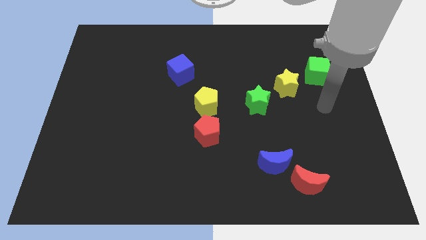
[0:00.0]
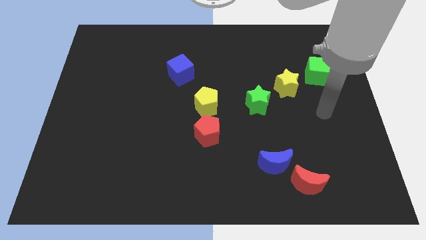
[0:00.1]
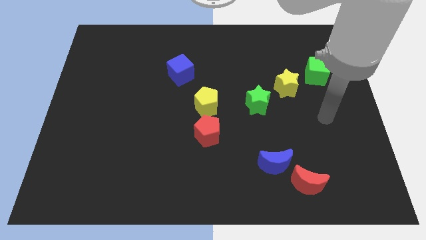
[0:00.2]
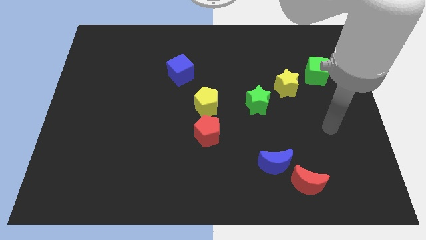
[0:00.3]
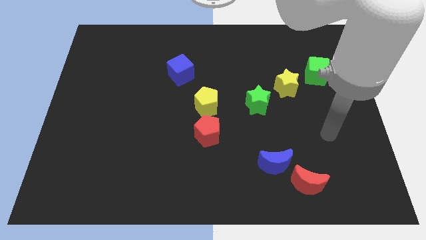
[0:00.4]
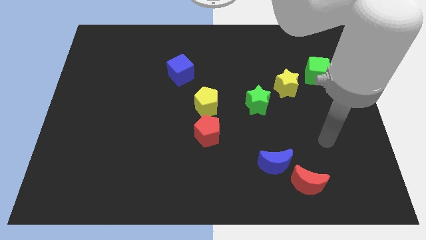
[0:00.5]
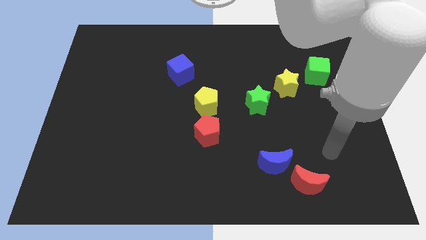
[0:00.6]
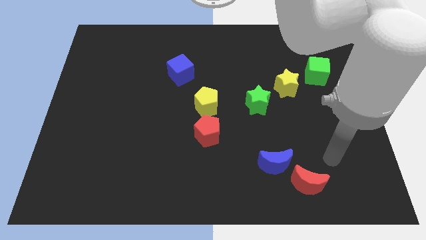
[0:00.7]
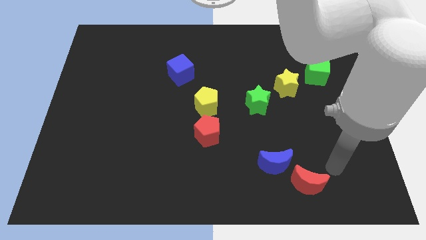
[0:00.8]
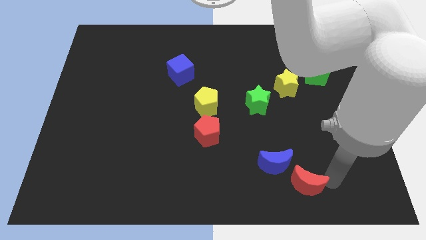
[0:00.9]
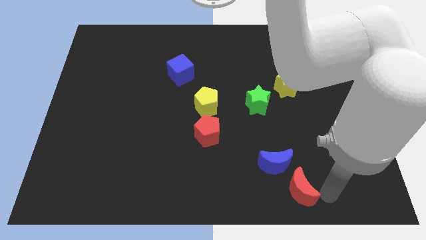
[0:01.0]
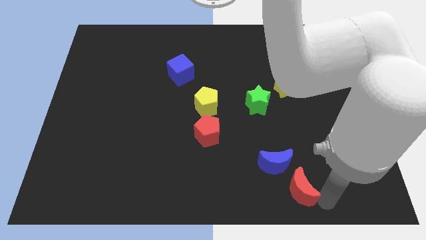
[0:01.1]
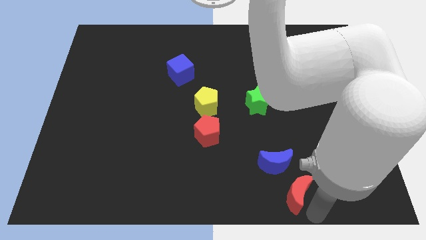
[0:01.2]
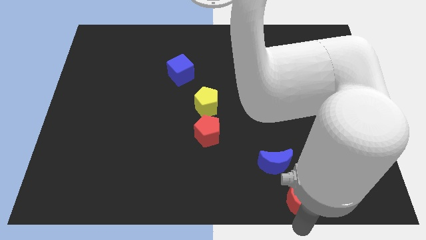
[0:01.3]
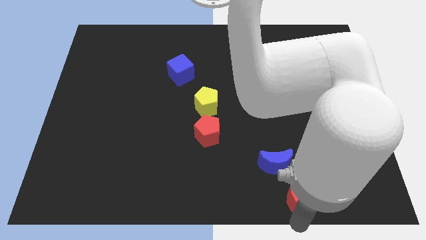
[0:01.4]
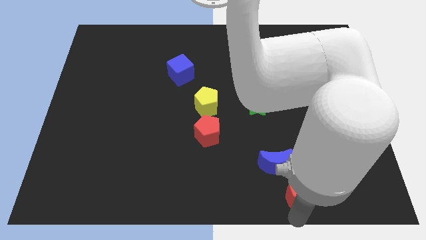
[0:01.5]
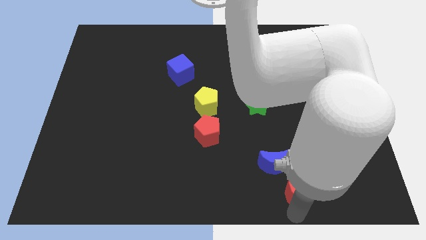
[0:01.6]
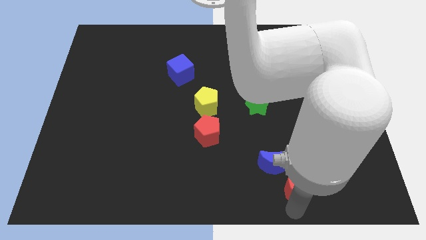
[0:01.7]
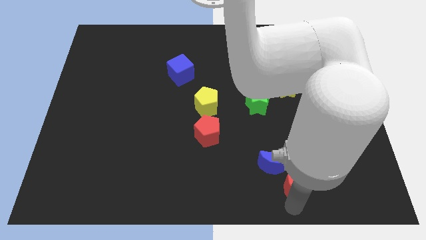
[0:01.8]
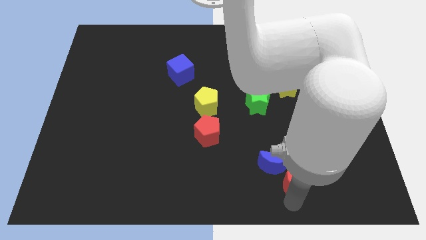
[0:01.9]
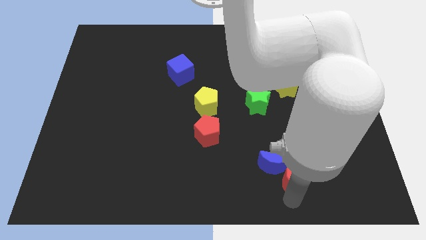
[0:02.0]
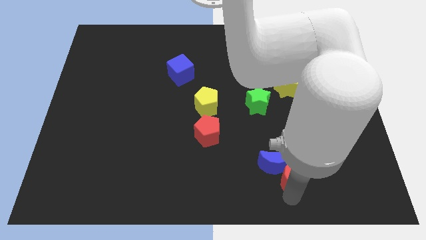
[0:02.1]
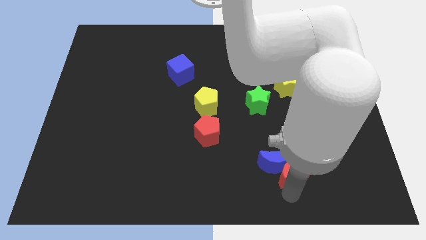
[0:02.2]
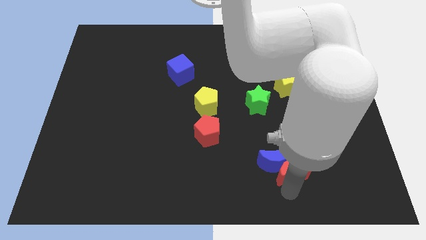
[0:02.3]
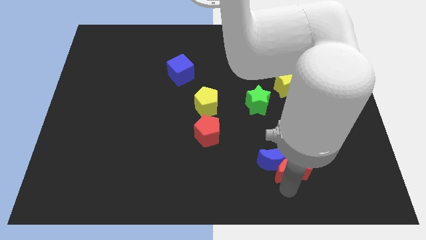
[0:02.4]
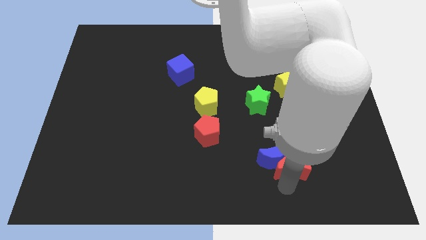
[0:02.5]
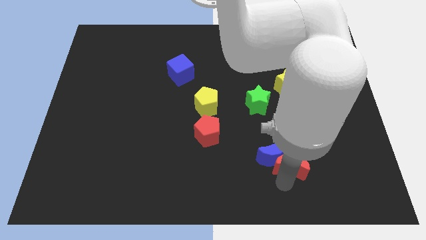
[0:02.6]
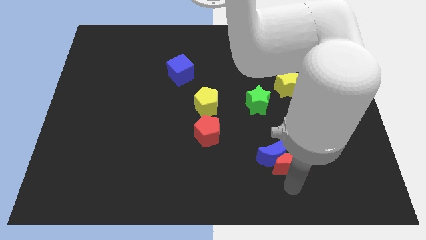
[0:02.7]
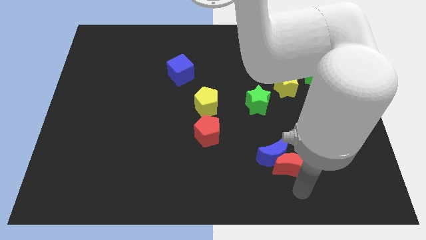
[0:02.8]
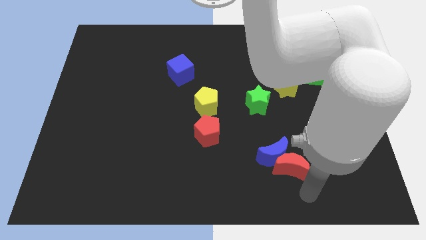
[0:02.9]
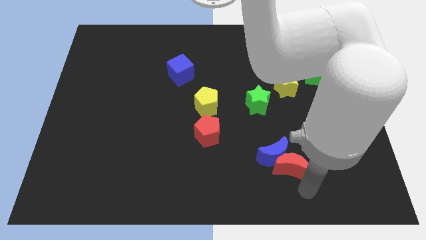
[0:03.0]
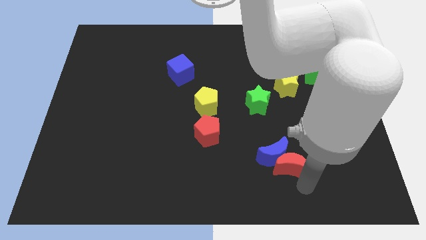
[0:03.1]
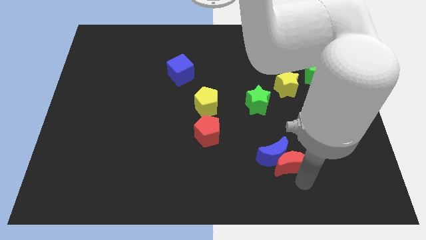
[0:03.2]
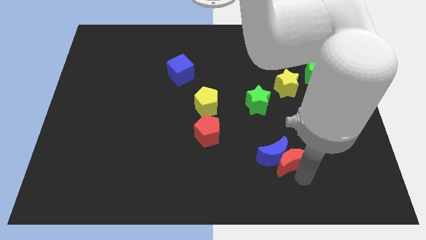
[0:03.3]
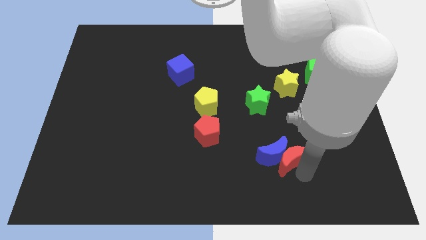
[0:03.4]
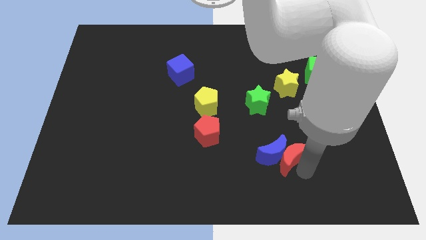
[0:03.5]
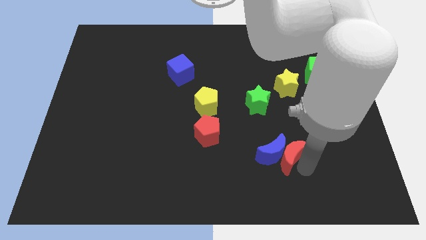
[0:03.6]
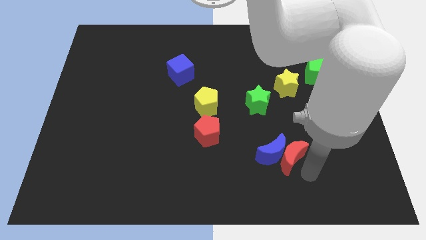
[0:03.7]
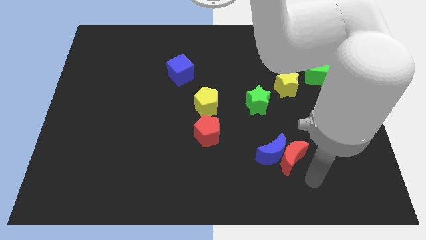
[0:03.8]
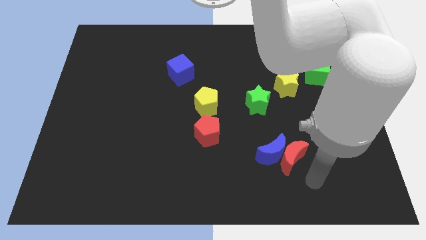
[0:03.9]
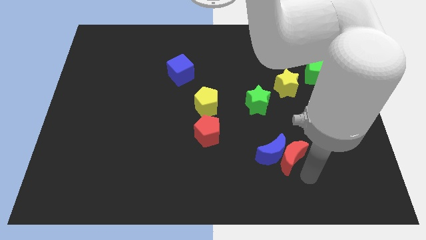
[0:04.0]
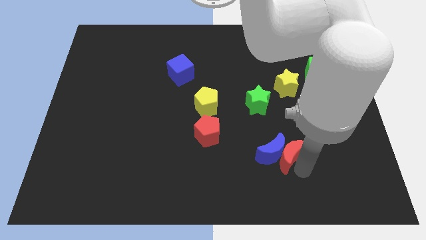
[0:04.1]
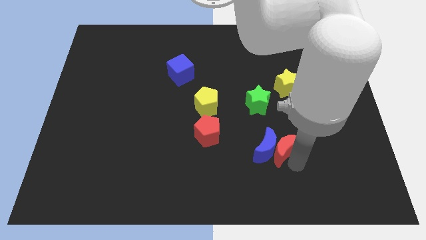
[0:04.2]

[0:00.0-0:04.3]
slightly push the red moon diagonally upwards and left

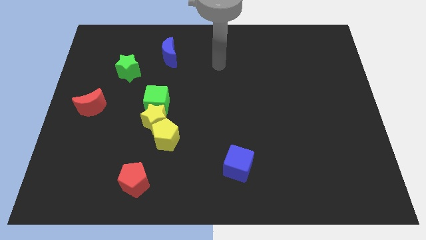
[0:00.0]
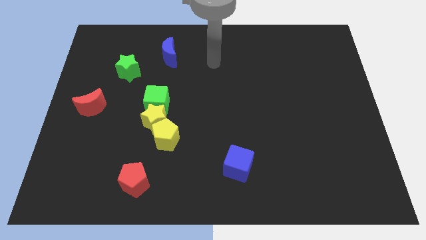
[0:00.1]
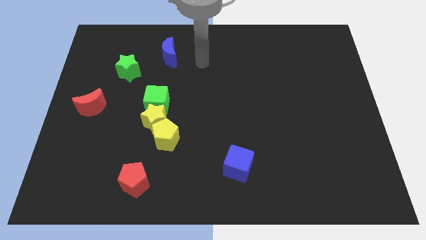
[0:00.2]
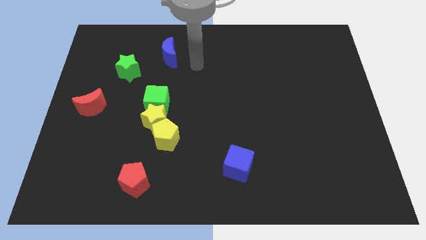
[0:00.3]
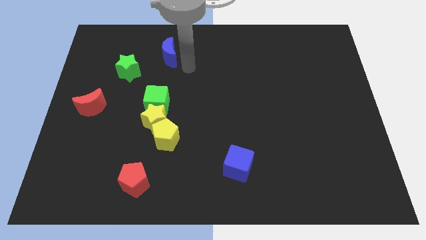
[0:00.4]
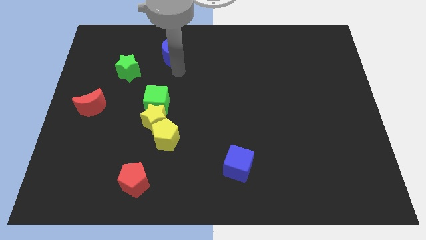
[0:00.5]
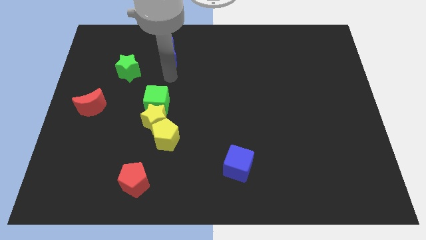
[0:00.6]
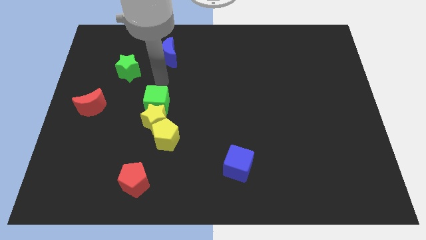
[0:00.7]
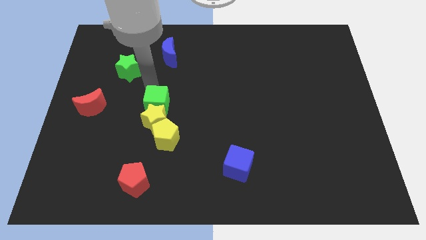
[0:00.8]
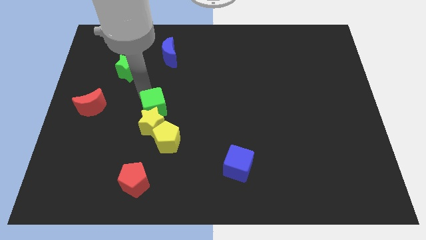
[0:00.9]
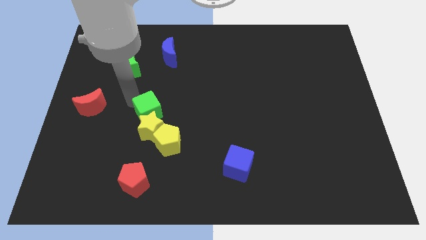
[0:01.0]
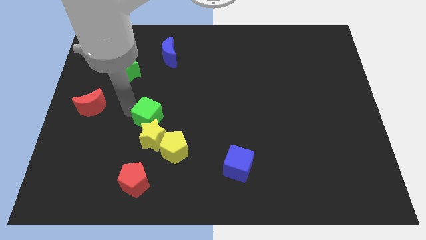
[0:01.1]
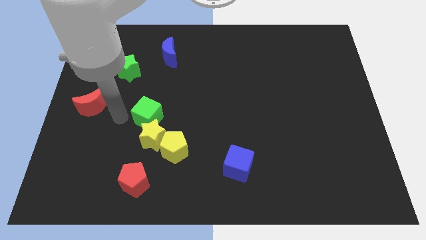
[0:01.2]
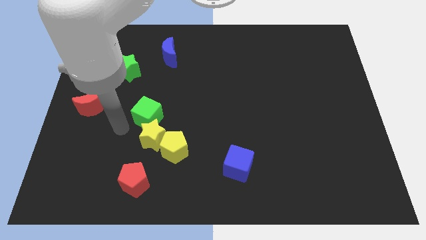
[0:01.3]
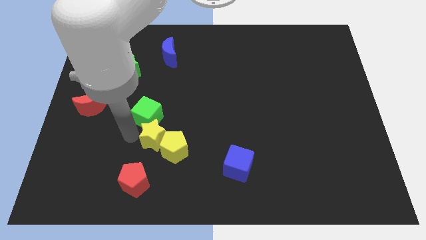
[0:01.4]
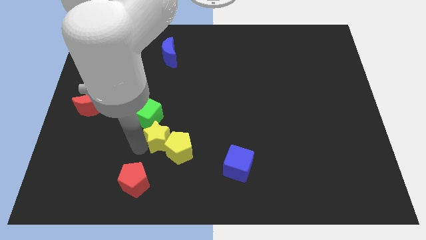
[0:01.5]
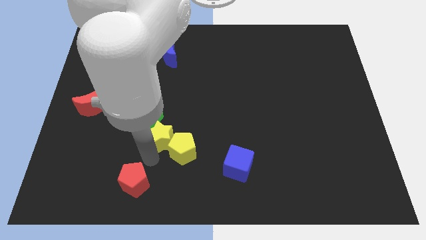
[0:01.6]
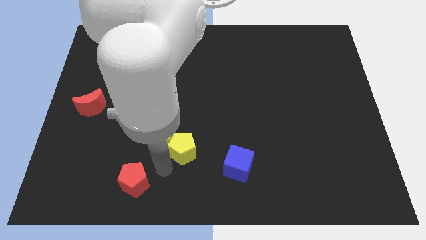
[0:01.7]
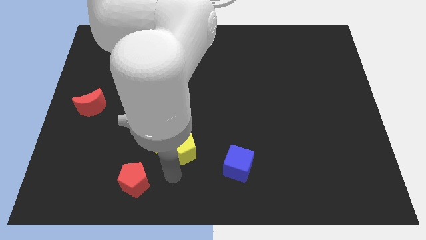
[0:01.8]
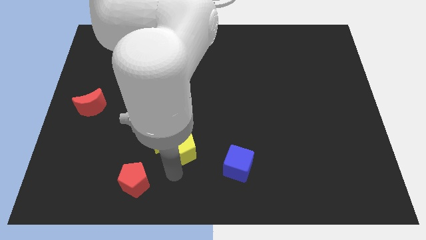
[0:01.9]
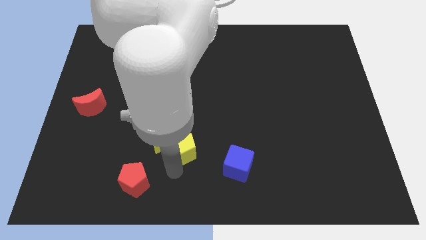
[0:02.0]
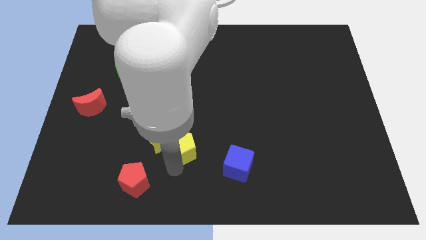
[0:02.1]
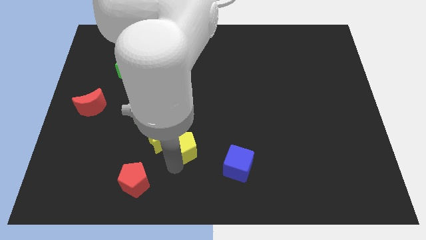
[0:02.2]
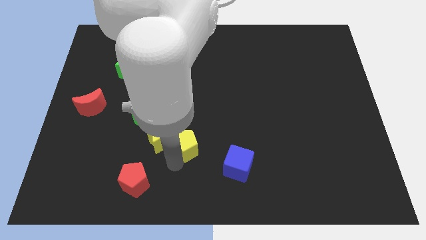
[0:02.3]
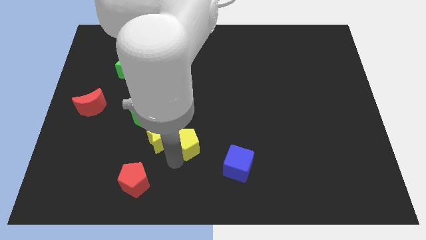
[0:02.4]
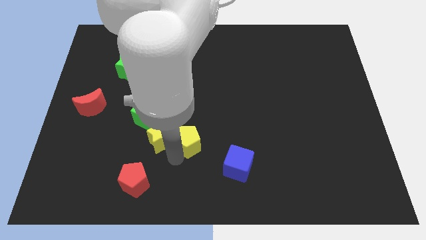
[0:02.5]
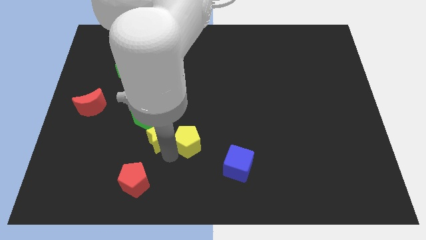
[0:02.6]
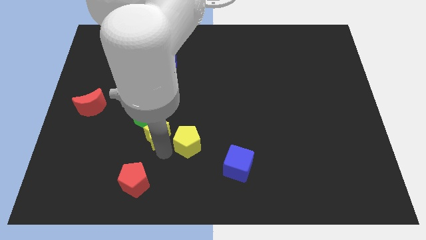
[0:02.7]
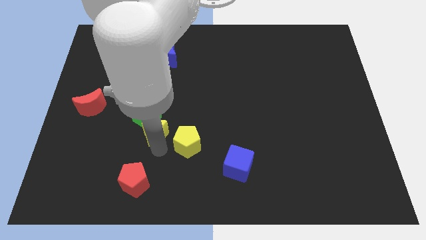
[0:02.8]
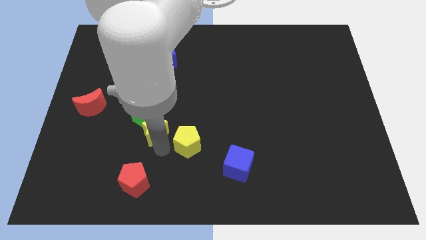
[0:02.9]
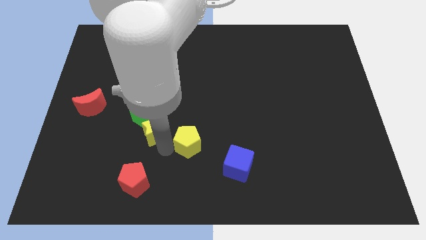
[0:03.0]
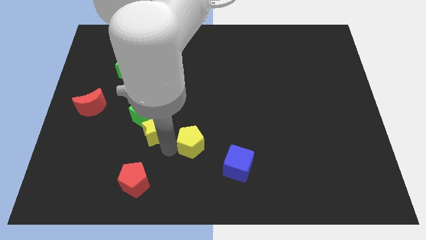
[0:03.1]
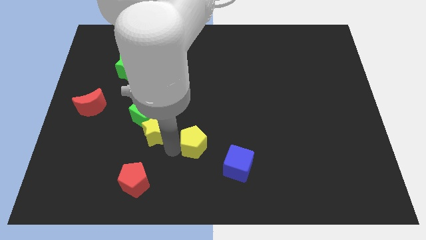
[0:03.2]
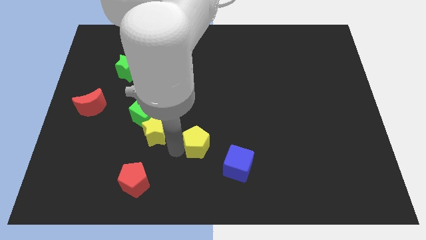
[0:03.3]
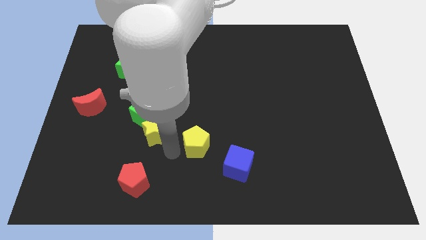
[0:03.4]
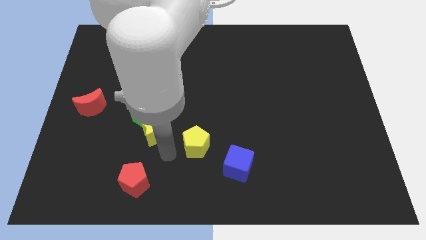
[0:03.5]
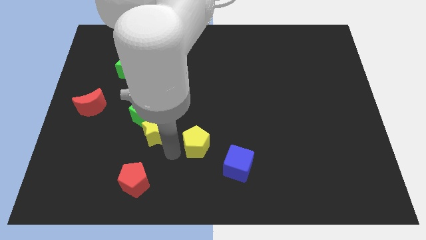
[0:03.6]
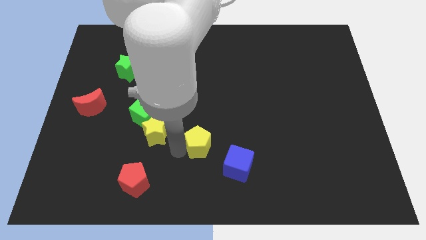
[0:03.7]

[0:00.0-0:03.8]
move the yellow pentagon to the right somewhat

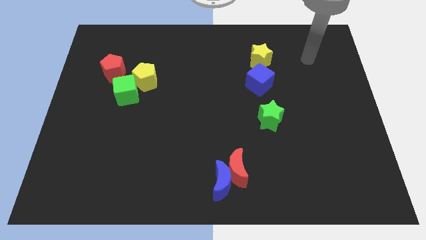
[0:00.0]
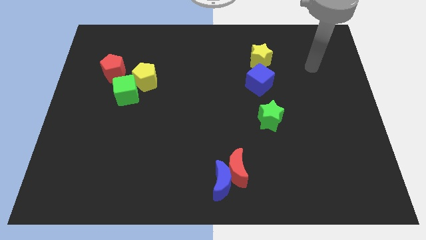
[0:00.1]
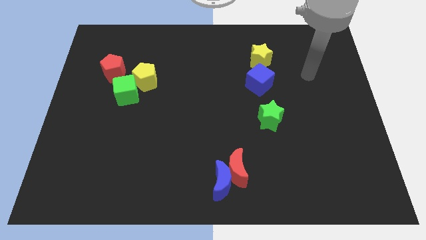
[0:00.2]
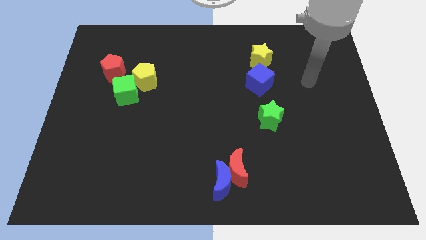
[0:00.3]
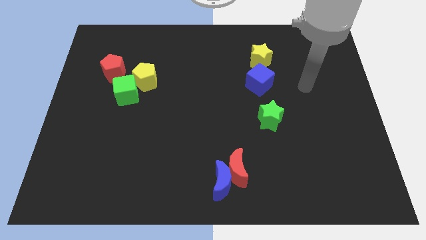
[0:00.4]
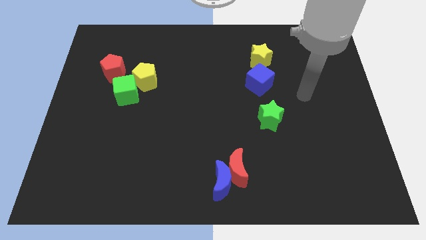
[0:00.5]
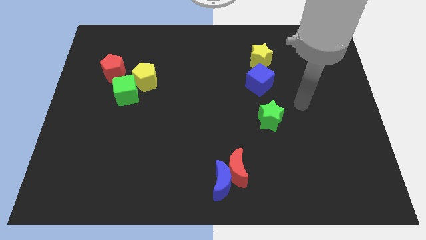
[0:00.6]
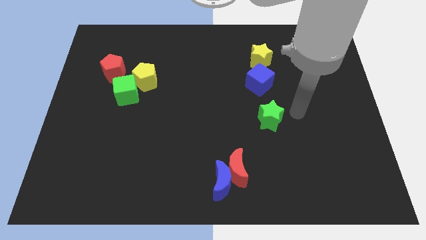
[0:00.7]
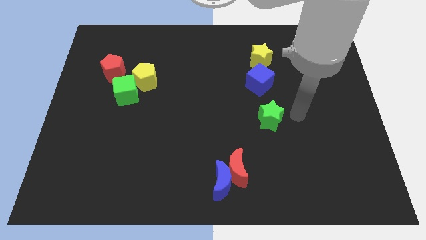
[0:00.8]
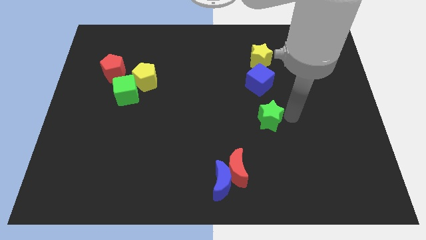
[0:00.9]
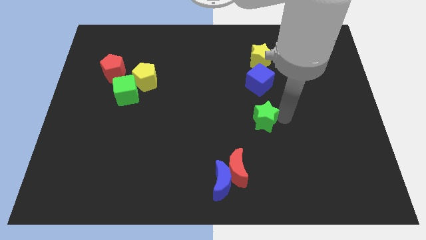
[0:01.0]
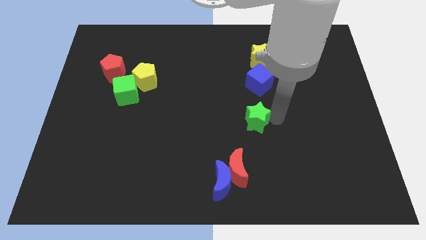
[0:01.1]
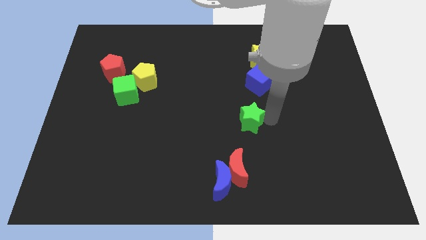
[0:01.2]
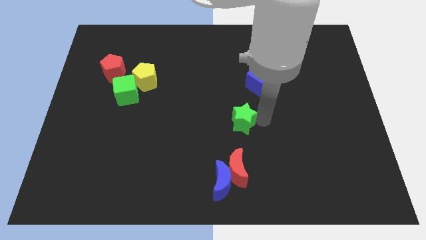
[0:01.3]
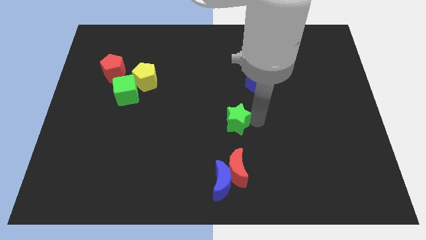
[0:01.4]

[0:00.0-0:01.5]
slightly move the green star left
